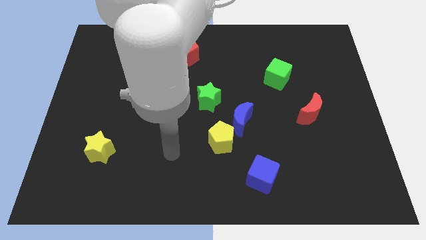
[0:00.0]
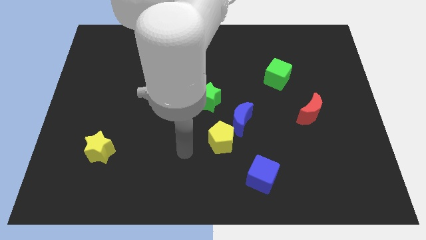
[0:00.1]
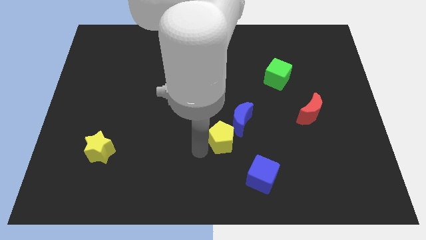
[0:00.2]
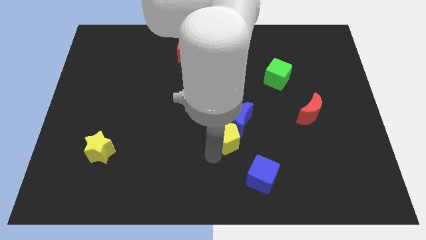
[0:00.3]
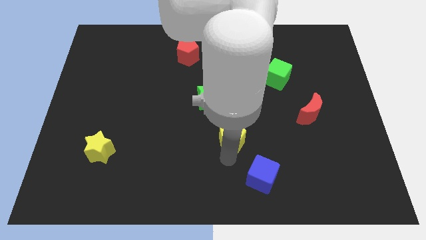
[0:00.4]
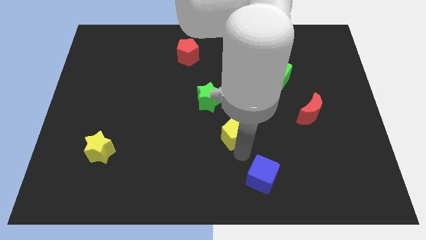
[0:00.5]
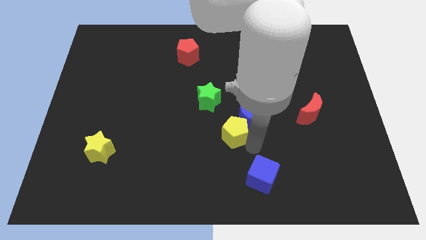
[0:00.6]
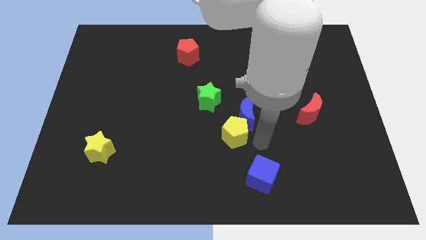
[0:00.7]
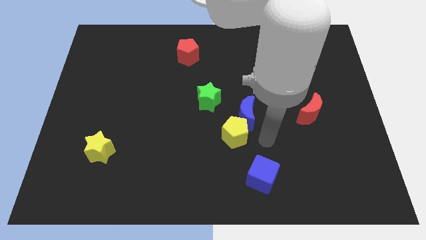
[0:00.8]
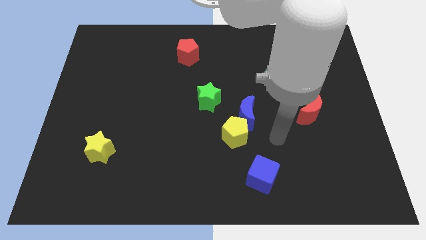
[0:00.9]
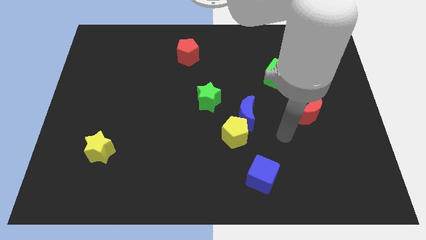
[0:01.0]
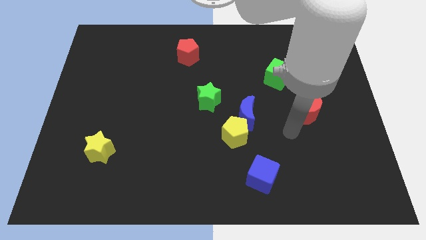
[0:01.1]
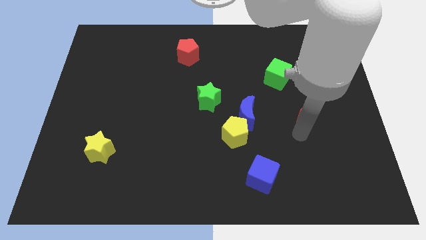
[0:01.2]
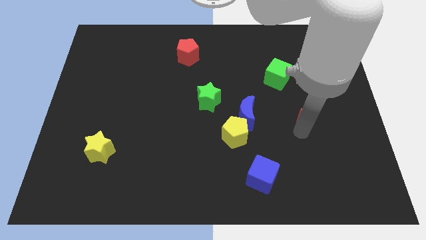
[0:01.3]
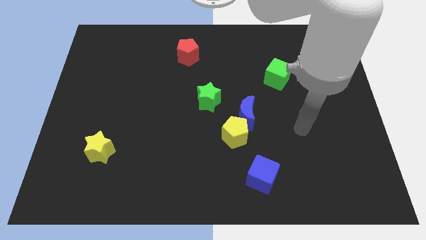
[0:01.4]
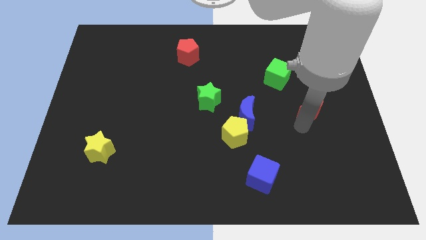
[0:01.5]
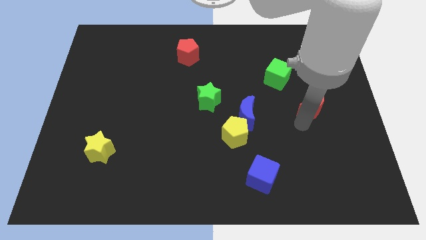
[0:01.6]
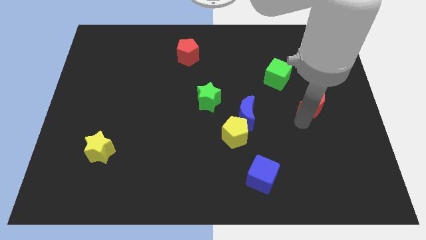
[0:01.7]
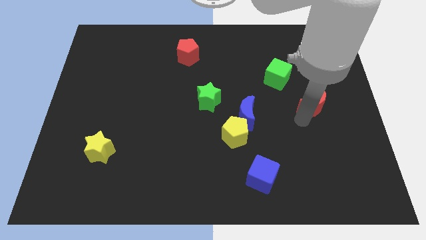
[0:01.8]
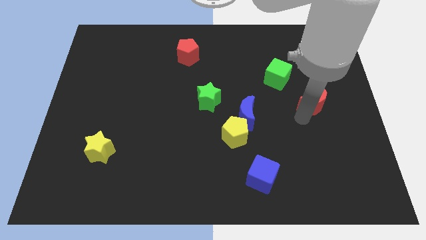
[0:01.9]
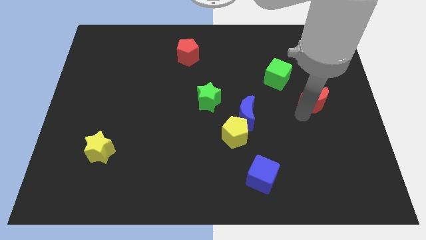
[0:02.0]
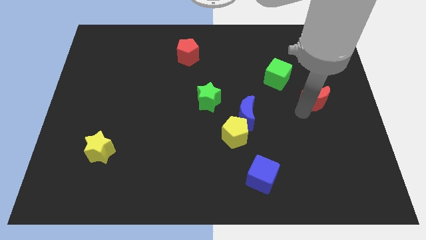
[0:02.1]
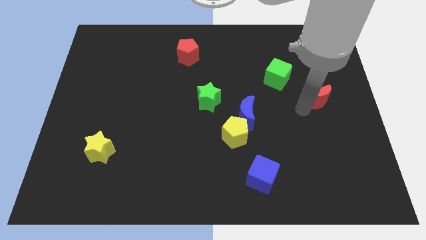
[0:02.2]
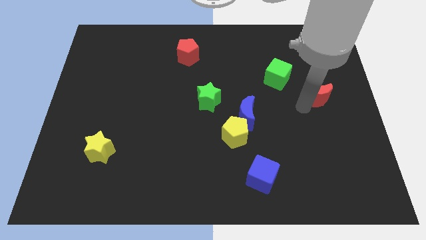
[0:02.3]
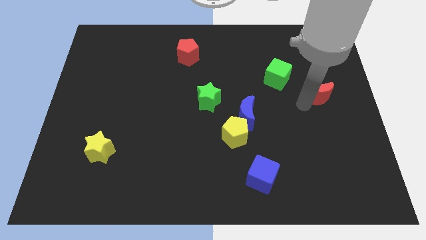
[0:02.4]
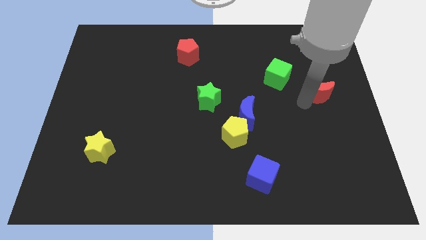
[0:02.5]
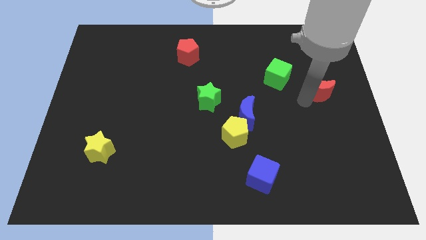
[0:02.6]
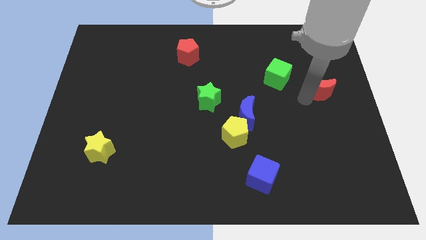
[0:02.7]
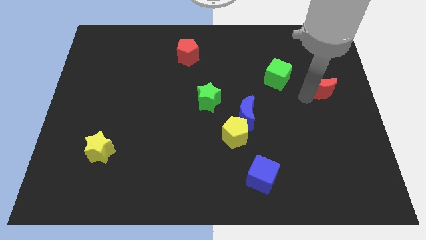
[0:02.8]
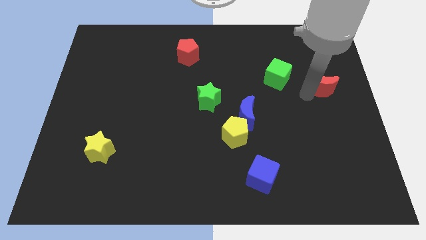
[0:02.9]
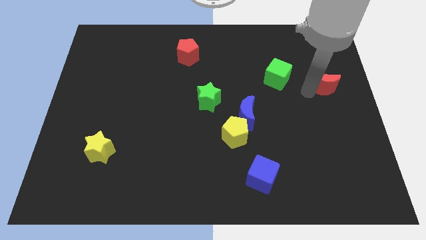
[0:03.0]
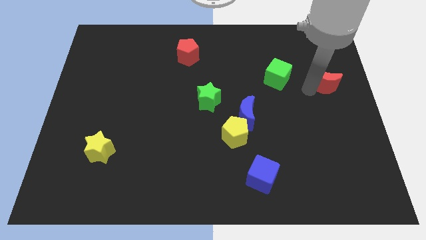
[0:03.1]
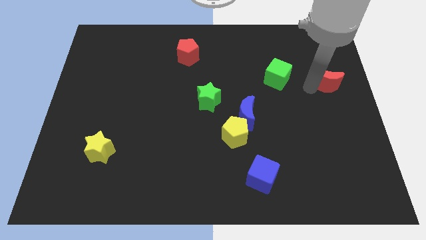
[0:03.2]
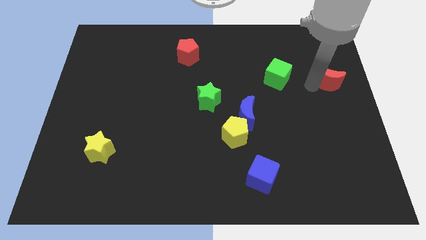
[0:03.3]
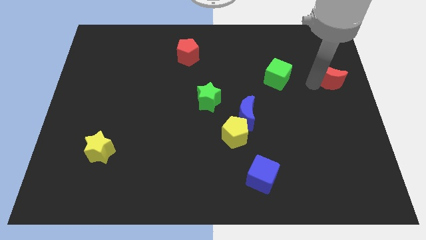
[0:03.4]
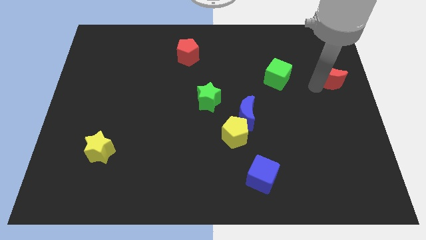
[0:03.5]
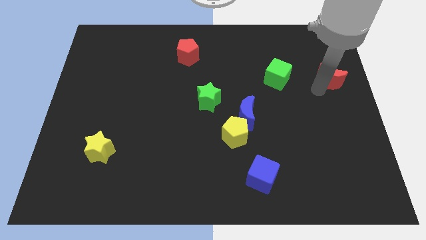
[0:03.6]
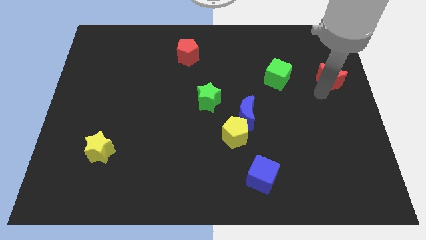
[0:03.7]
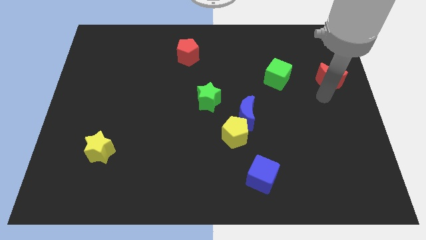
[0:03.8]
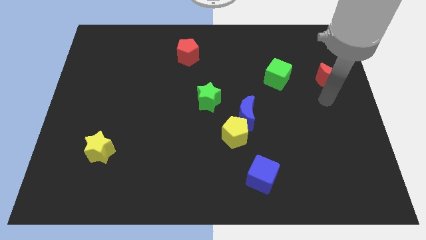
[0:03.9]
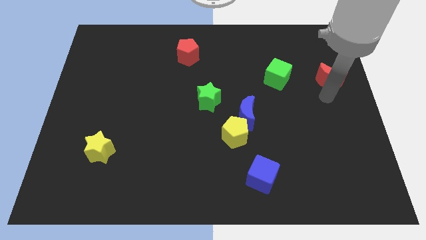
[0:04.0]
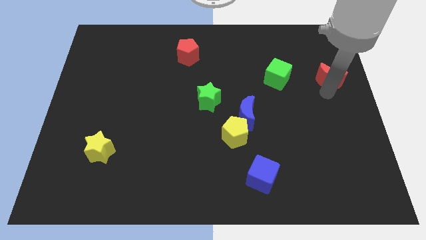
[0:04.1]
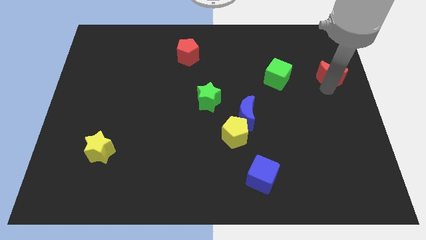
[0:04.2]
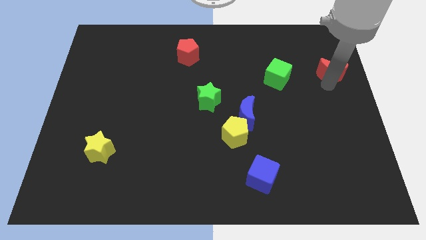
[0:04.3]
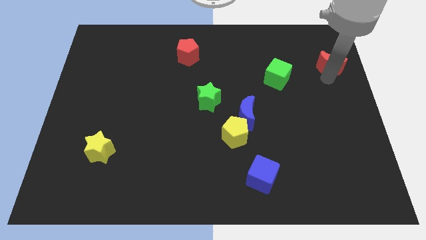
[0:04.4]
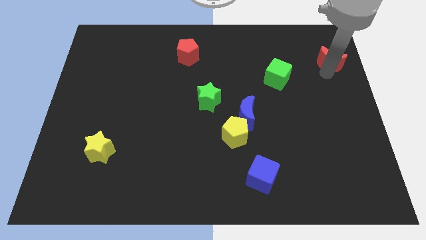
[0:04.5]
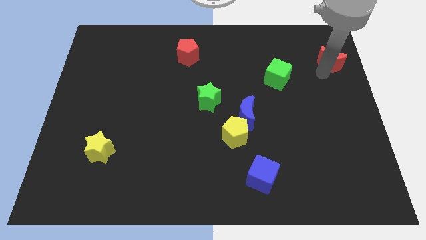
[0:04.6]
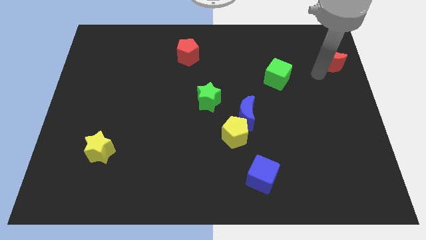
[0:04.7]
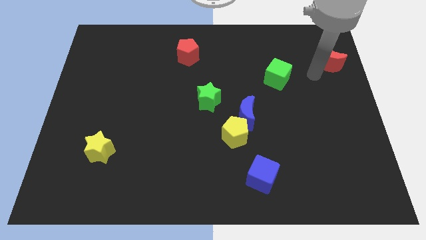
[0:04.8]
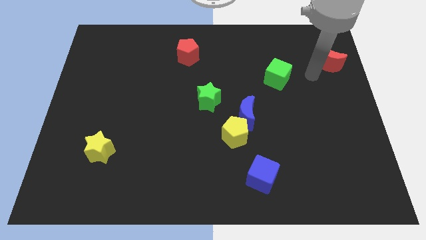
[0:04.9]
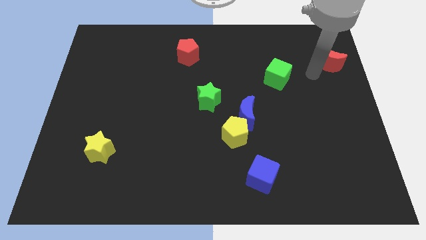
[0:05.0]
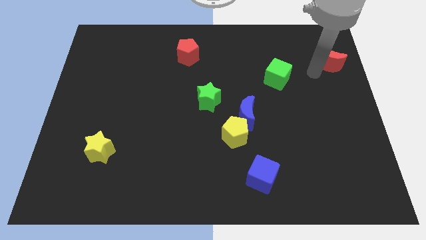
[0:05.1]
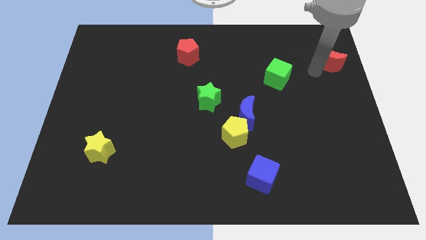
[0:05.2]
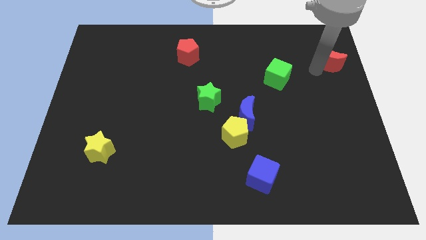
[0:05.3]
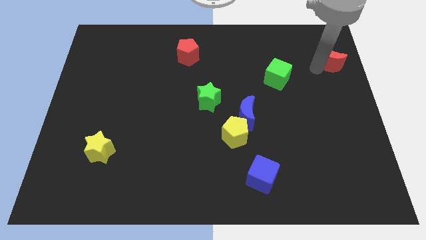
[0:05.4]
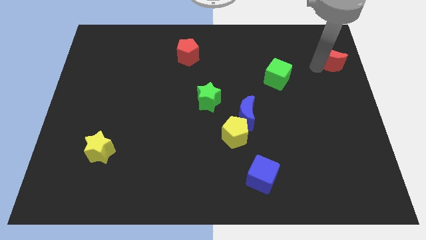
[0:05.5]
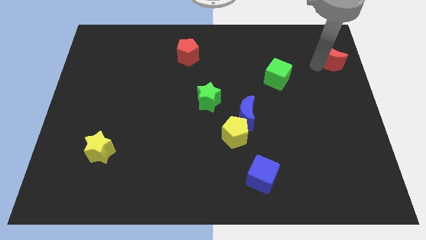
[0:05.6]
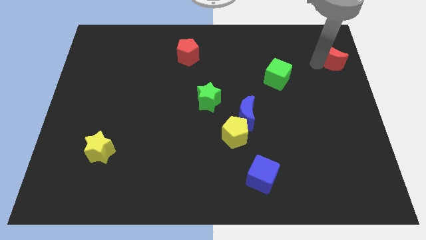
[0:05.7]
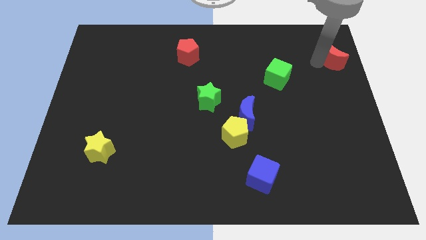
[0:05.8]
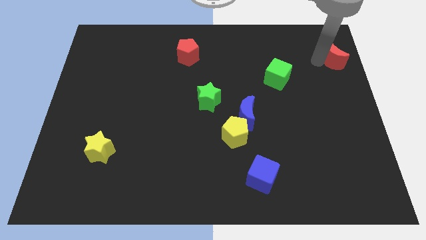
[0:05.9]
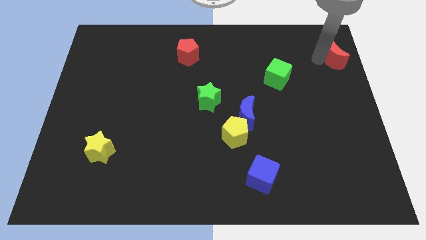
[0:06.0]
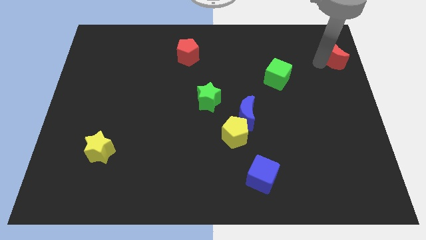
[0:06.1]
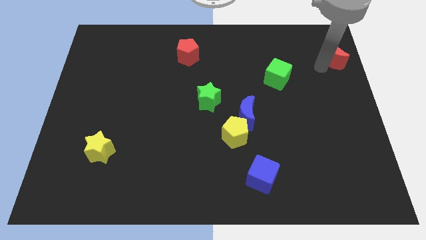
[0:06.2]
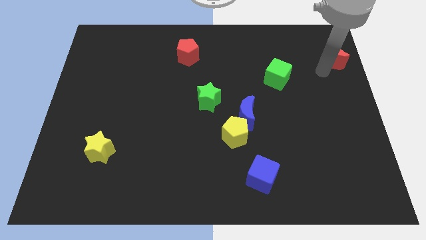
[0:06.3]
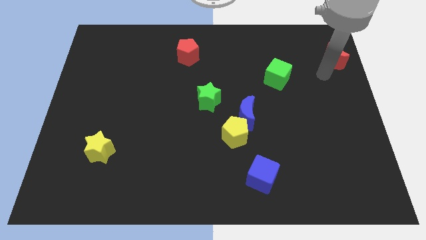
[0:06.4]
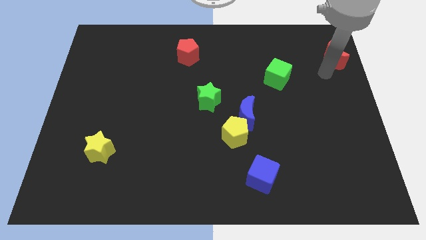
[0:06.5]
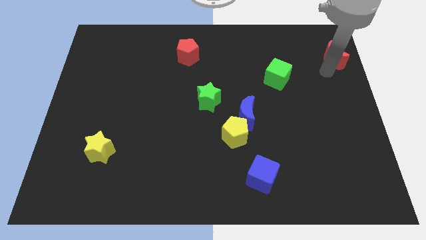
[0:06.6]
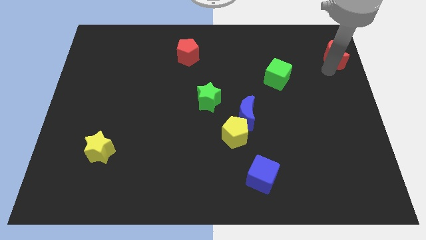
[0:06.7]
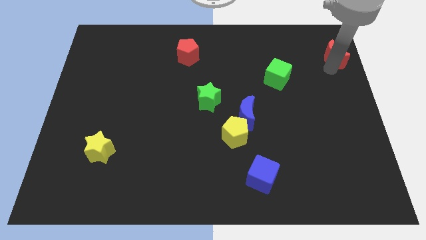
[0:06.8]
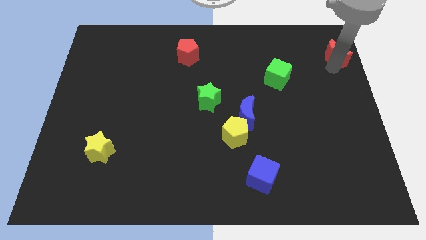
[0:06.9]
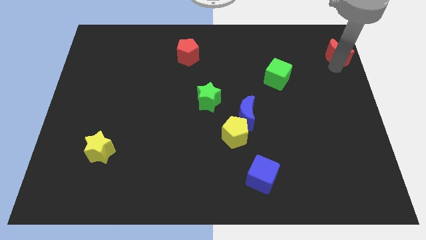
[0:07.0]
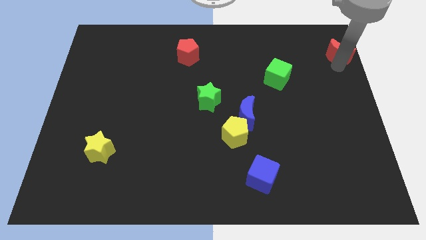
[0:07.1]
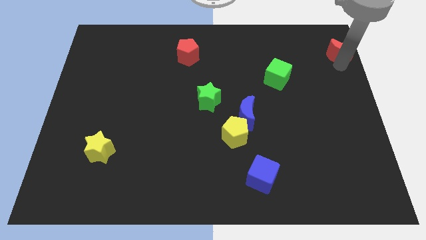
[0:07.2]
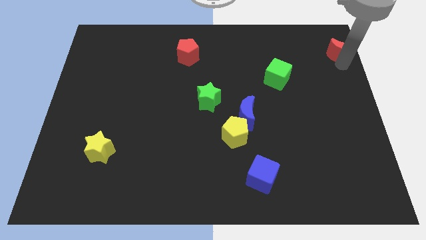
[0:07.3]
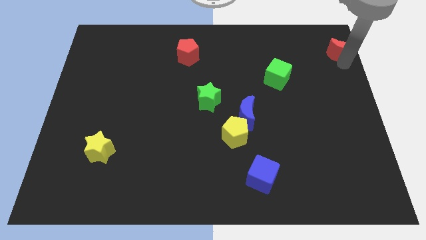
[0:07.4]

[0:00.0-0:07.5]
slide the red moon to the top right of the board
